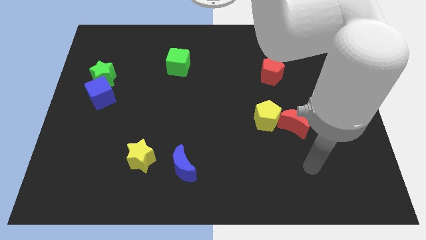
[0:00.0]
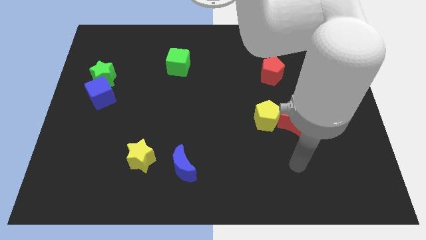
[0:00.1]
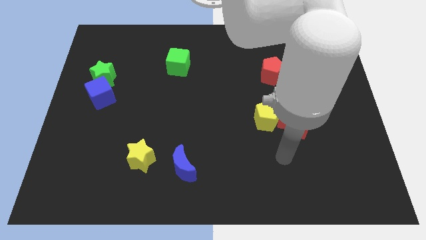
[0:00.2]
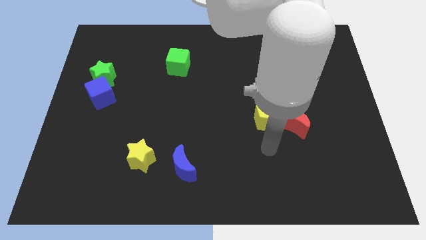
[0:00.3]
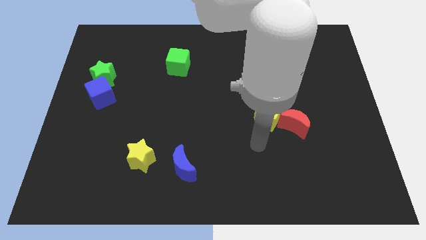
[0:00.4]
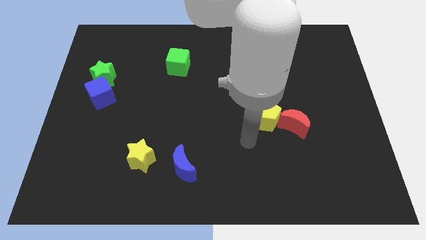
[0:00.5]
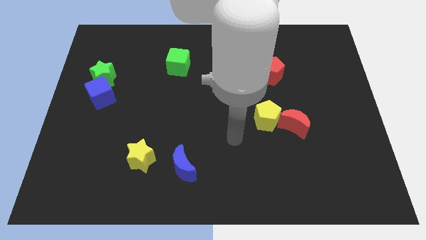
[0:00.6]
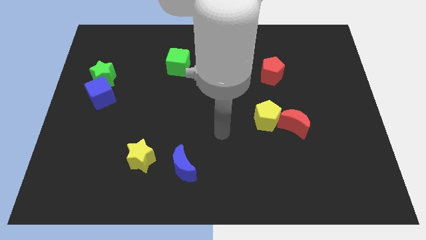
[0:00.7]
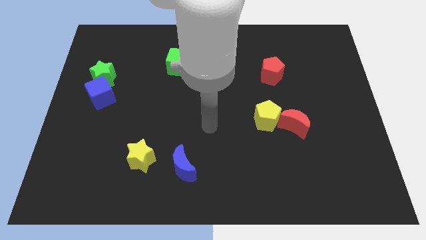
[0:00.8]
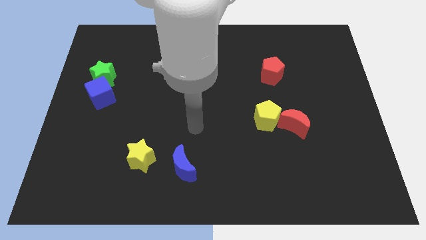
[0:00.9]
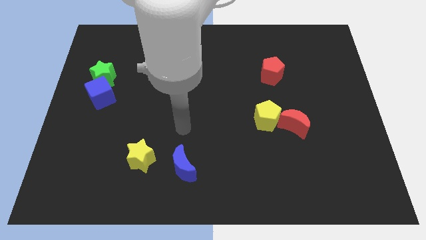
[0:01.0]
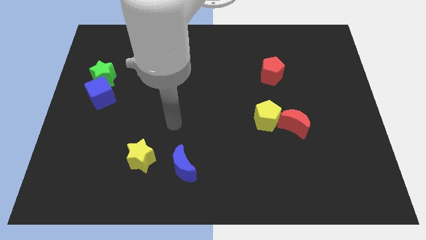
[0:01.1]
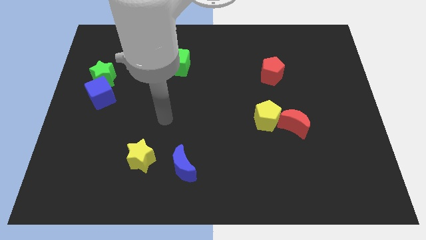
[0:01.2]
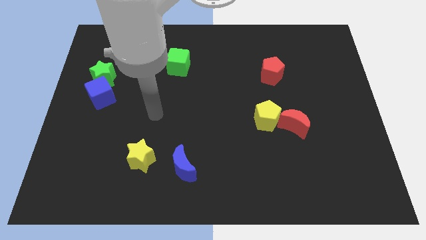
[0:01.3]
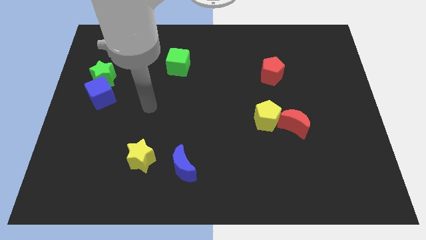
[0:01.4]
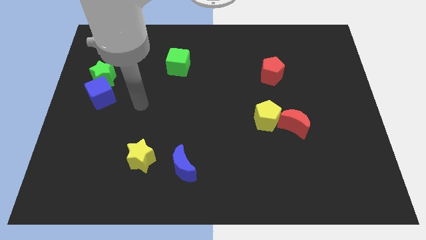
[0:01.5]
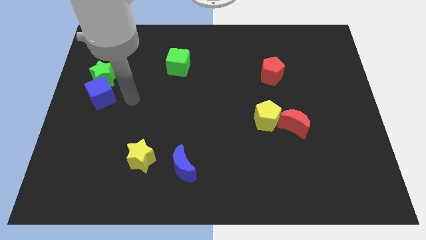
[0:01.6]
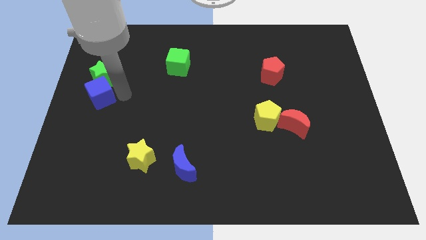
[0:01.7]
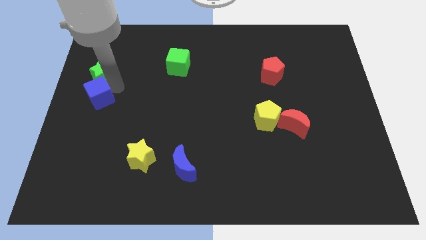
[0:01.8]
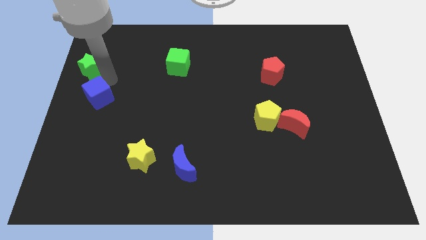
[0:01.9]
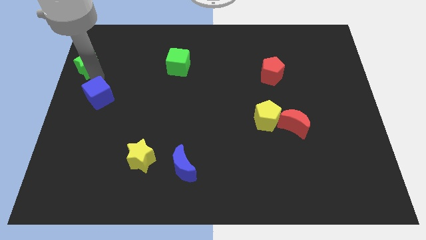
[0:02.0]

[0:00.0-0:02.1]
move the blue cube away from the green star

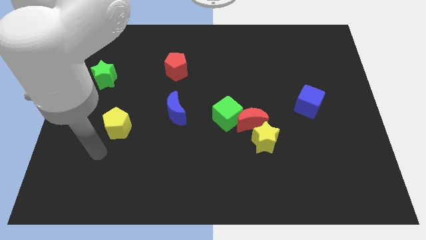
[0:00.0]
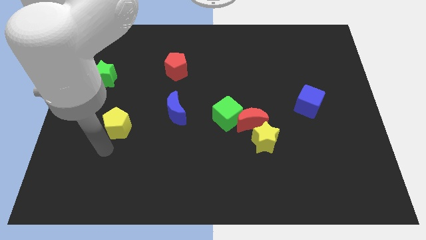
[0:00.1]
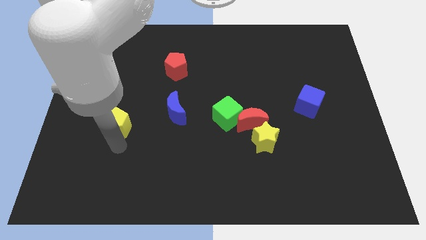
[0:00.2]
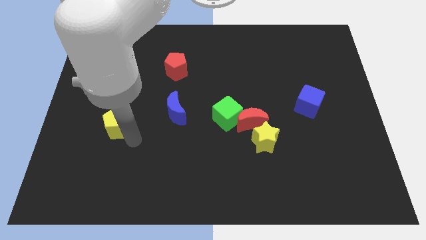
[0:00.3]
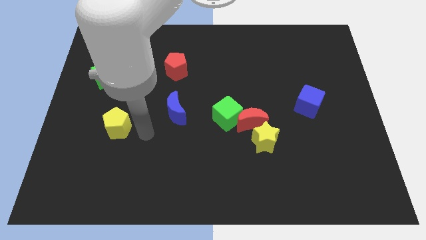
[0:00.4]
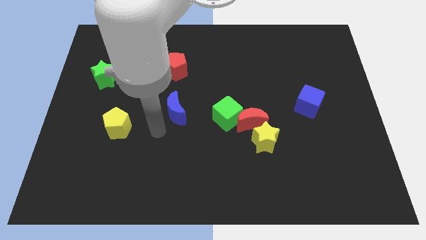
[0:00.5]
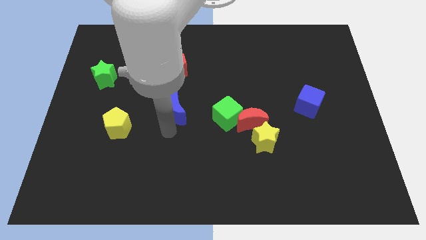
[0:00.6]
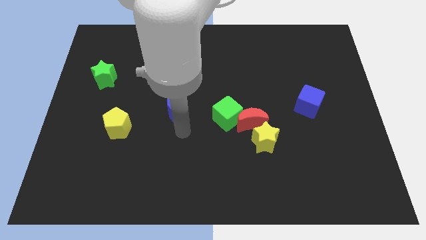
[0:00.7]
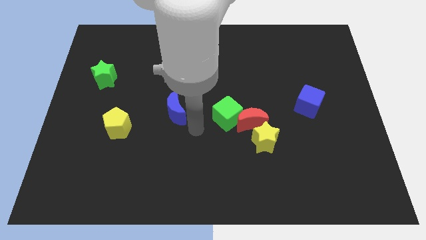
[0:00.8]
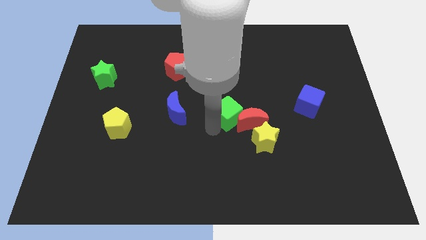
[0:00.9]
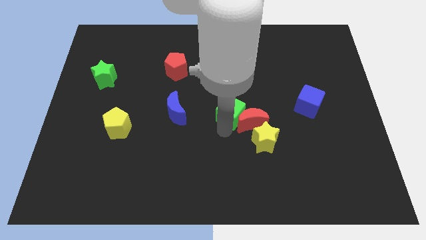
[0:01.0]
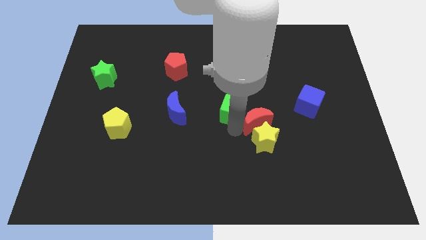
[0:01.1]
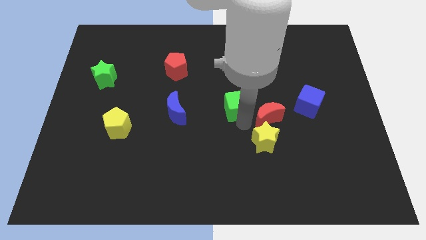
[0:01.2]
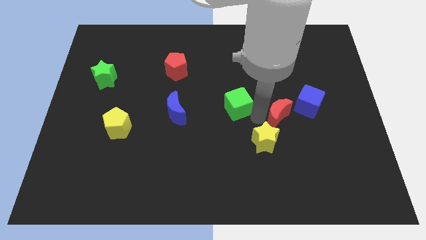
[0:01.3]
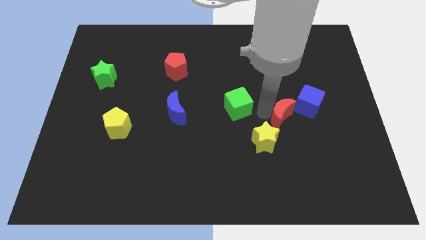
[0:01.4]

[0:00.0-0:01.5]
separate the green cube from the red moon

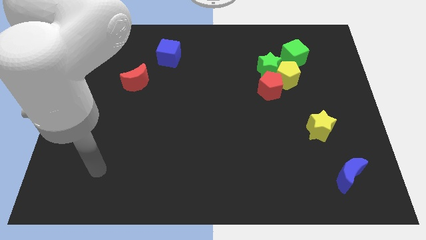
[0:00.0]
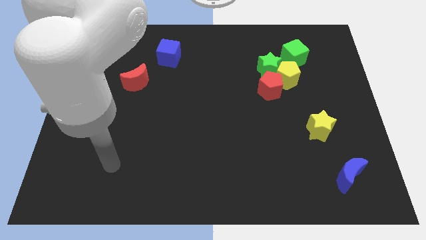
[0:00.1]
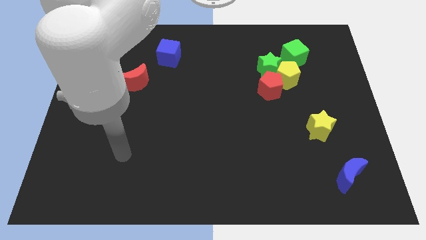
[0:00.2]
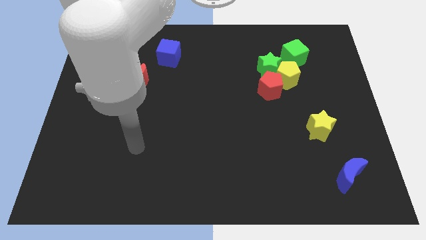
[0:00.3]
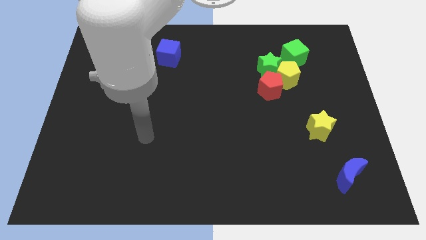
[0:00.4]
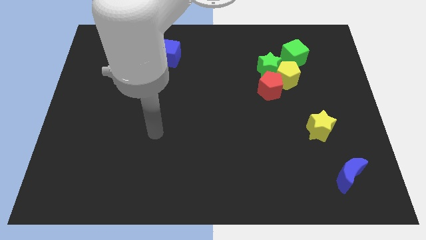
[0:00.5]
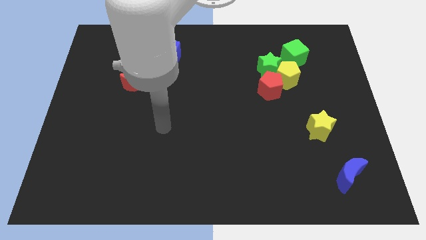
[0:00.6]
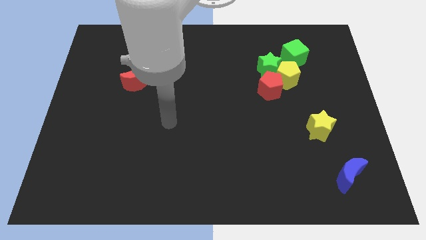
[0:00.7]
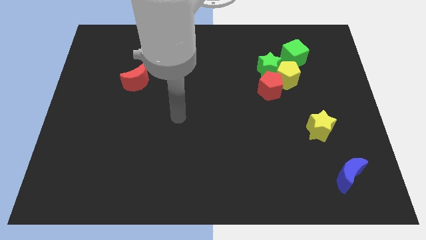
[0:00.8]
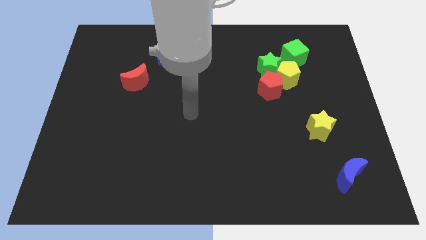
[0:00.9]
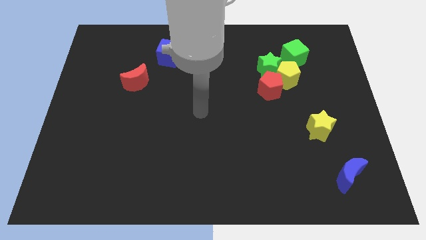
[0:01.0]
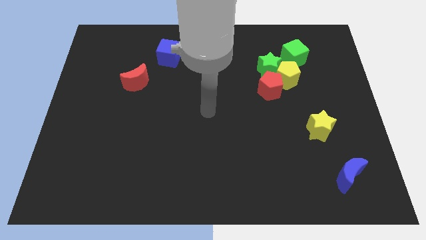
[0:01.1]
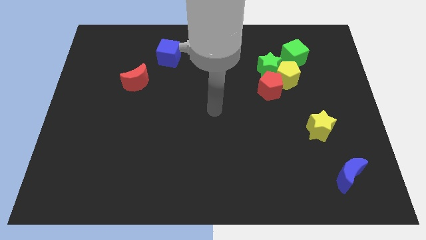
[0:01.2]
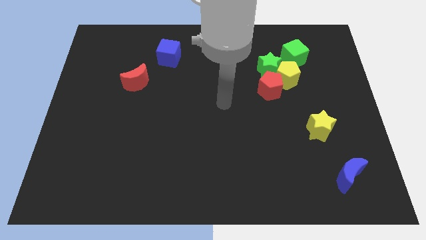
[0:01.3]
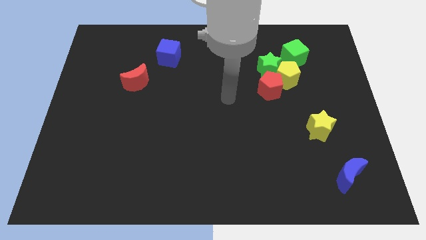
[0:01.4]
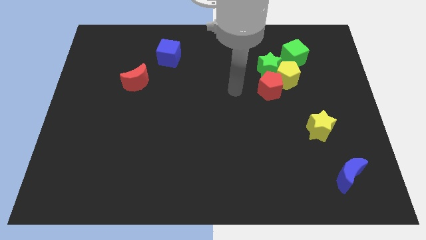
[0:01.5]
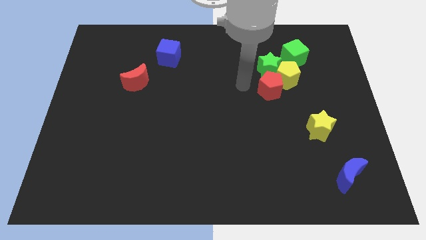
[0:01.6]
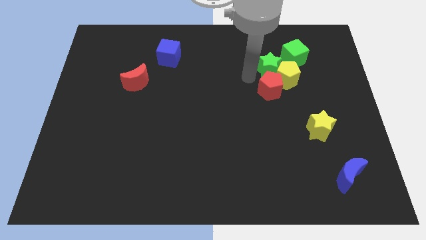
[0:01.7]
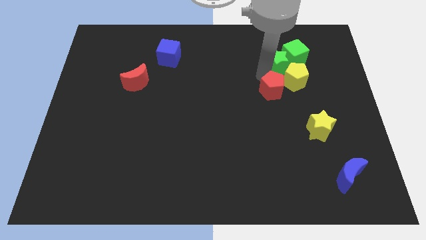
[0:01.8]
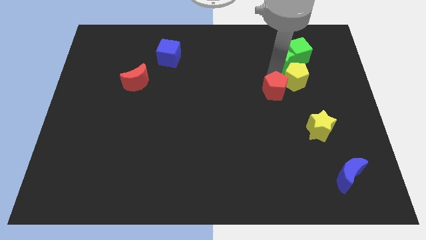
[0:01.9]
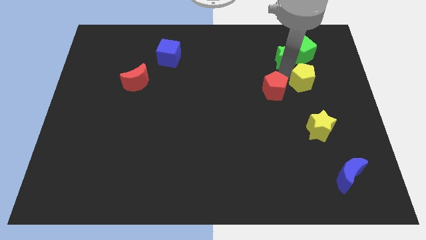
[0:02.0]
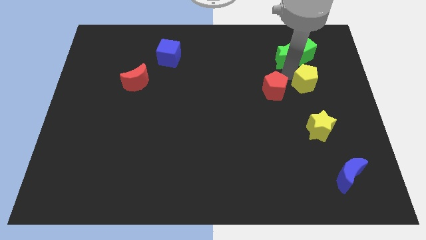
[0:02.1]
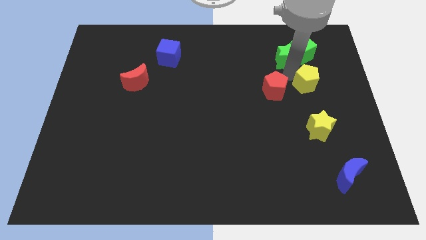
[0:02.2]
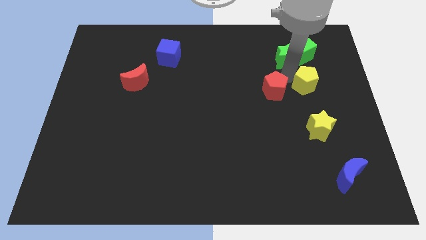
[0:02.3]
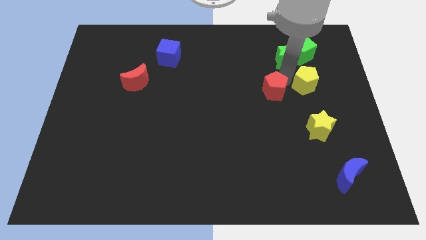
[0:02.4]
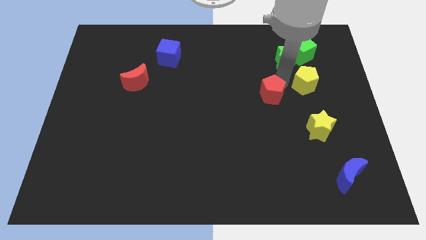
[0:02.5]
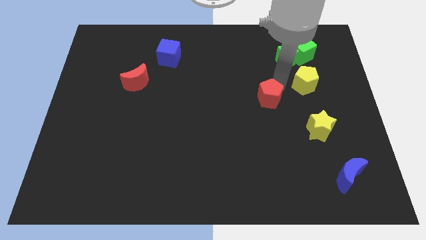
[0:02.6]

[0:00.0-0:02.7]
separate the red pentagon from the yellow pentagon and green star

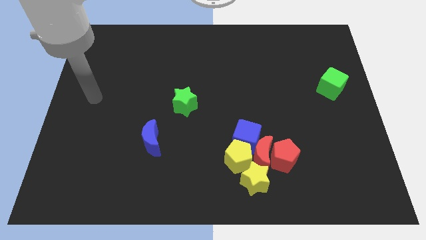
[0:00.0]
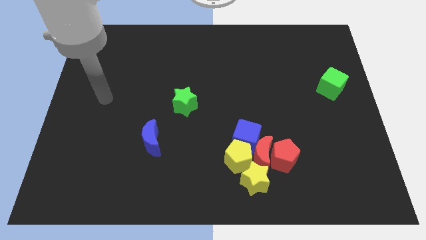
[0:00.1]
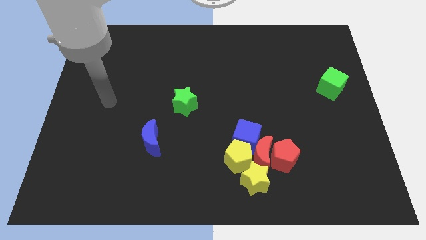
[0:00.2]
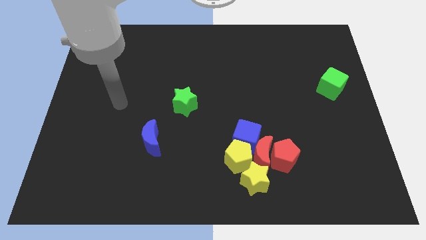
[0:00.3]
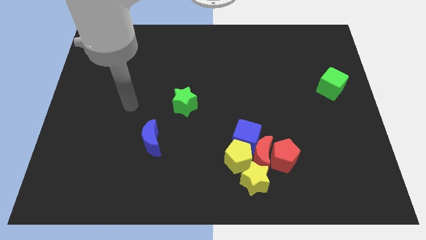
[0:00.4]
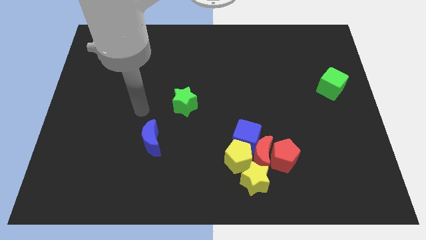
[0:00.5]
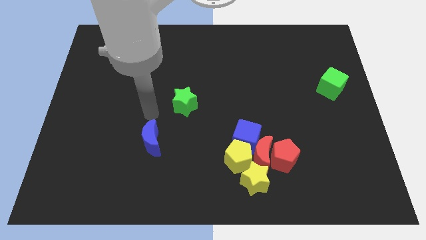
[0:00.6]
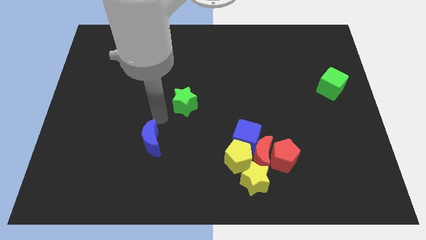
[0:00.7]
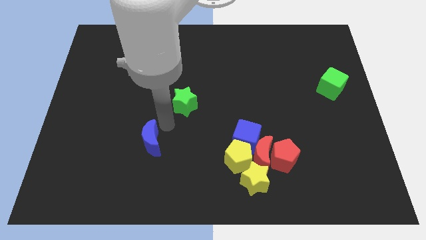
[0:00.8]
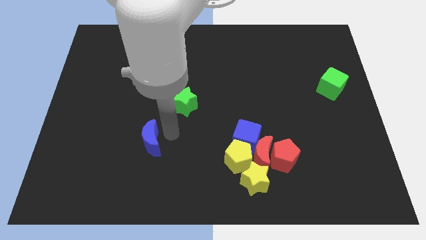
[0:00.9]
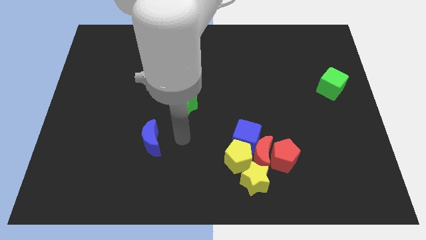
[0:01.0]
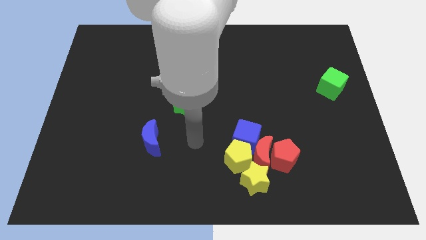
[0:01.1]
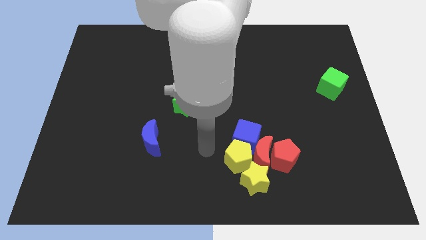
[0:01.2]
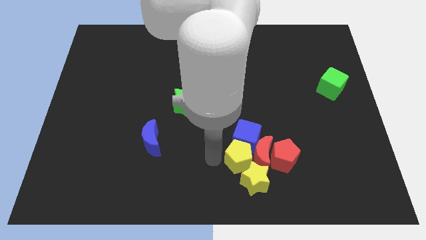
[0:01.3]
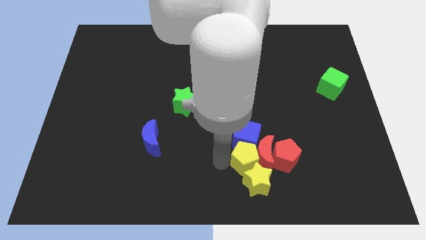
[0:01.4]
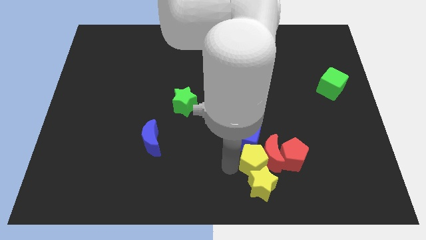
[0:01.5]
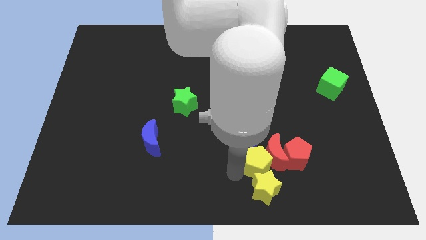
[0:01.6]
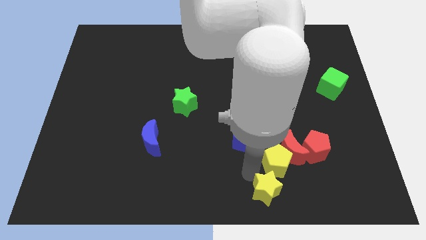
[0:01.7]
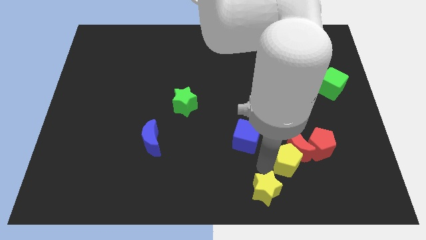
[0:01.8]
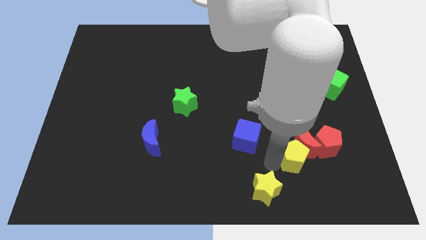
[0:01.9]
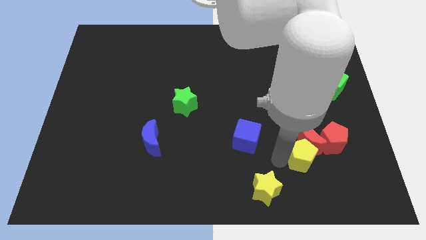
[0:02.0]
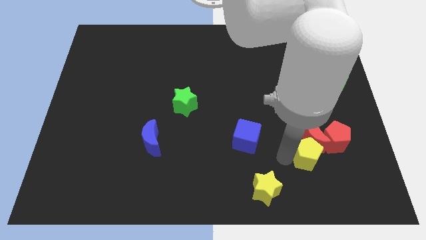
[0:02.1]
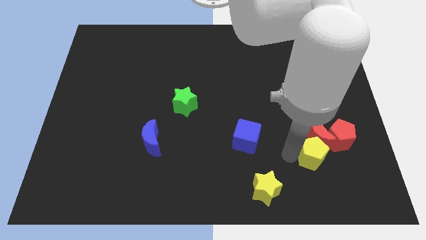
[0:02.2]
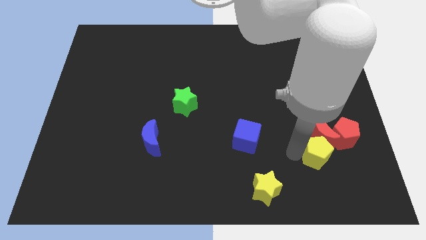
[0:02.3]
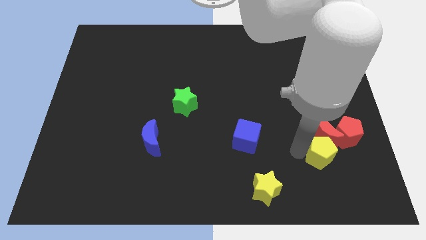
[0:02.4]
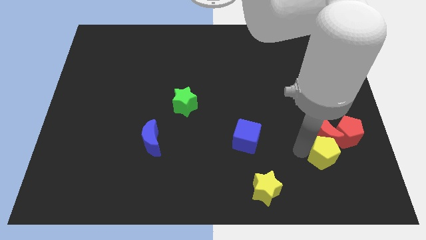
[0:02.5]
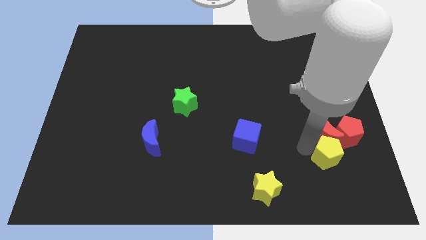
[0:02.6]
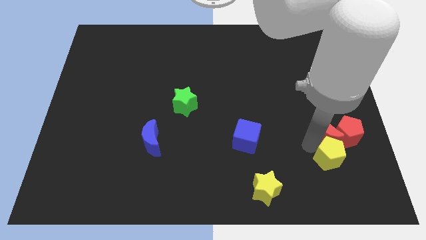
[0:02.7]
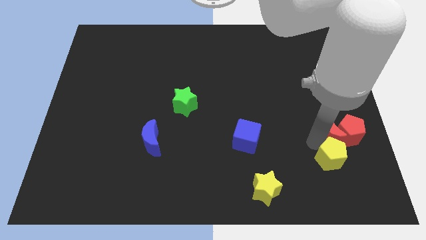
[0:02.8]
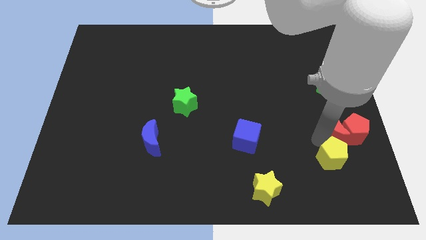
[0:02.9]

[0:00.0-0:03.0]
move the red moon away from the group of blocks

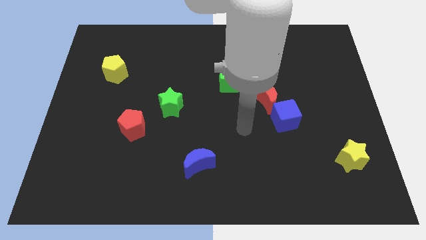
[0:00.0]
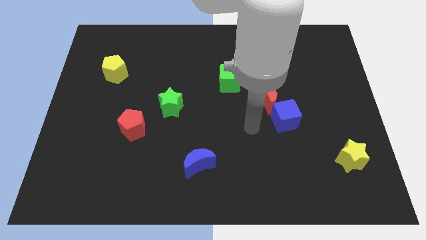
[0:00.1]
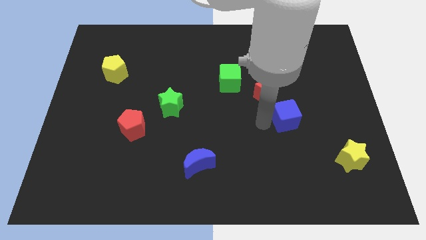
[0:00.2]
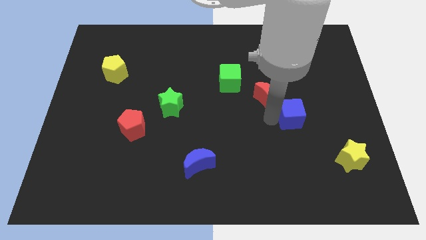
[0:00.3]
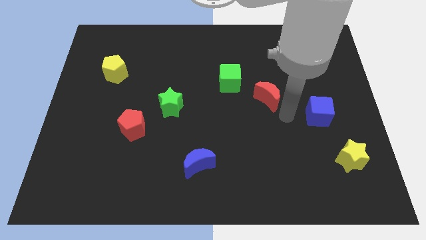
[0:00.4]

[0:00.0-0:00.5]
move the red moon away from the blue cube
